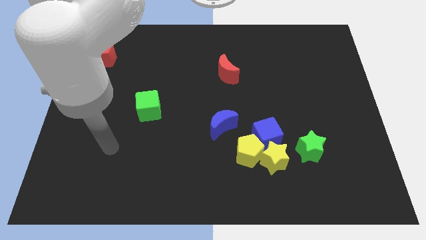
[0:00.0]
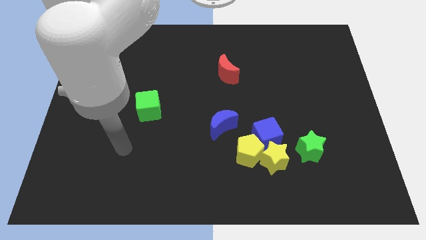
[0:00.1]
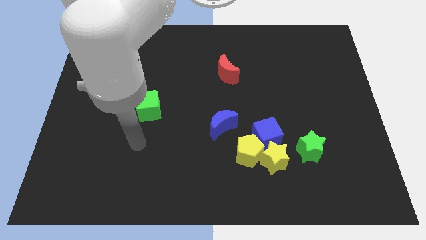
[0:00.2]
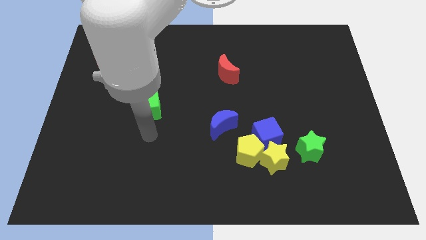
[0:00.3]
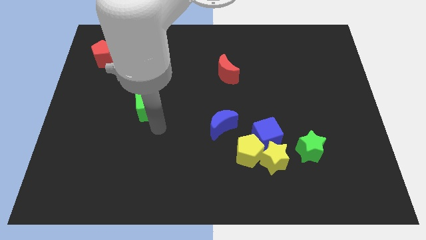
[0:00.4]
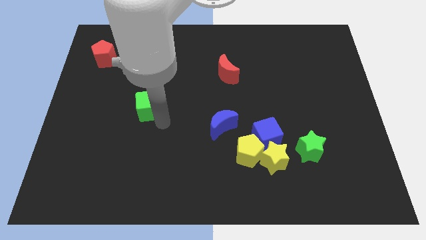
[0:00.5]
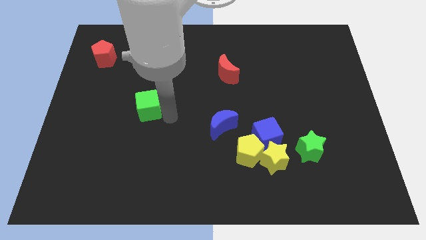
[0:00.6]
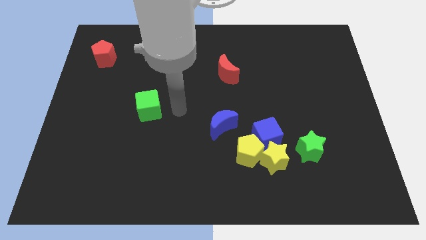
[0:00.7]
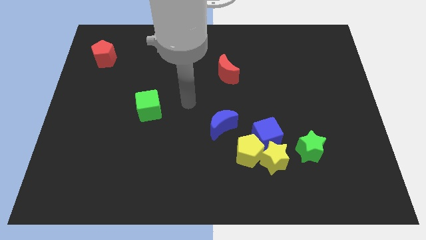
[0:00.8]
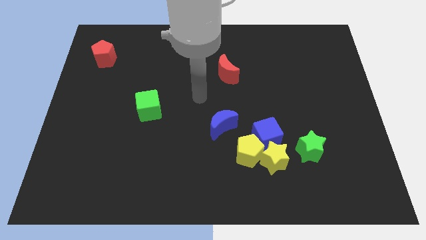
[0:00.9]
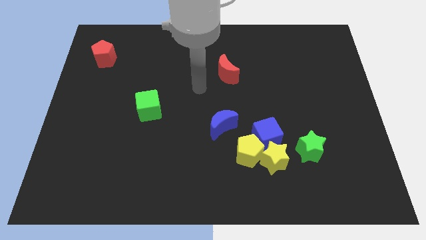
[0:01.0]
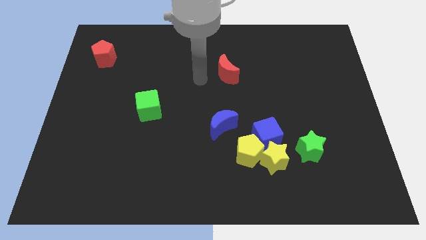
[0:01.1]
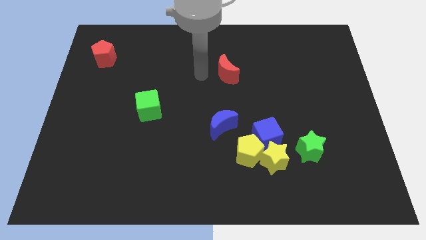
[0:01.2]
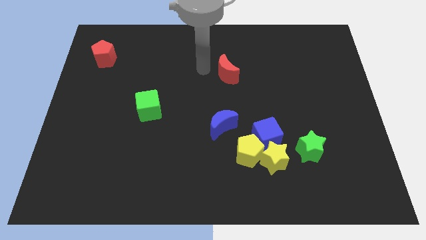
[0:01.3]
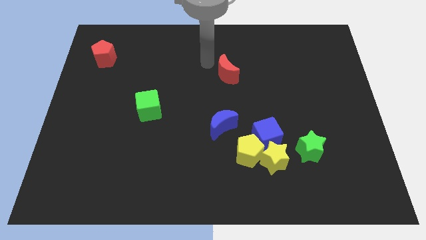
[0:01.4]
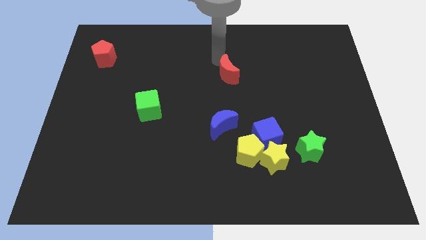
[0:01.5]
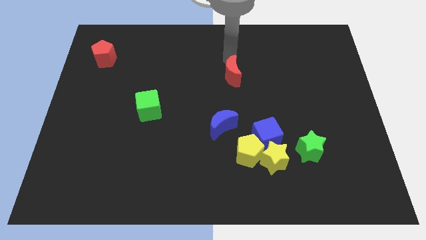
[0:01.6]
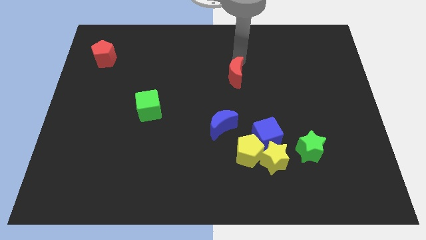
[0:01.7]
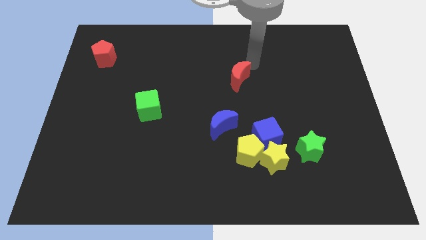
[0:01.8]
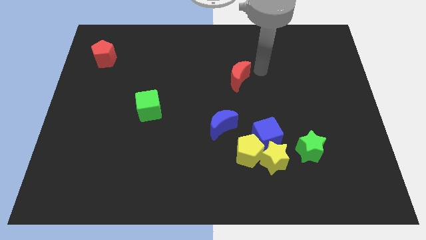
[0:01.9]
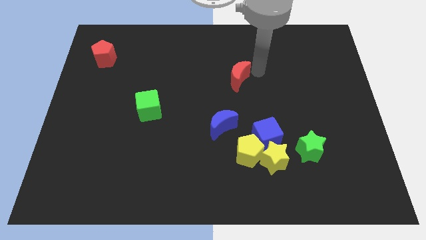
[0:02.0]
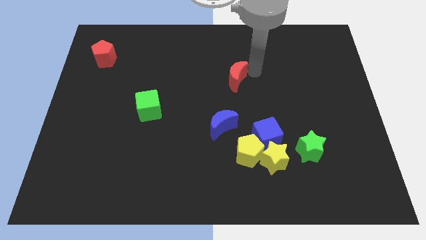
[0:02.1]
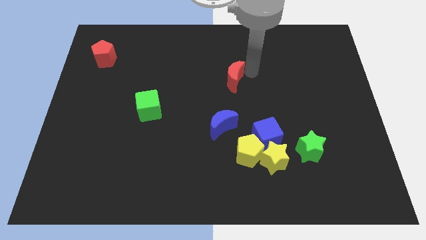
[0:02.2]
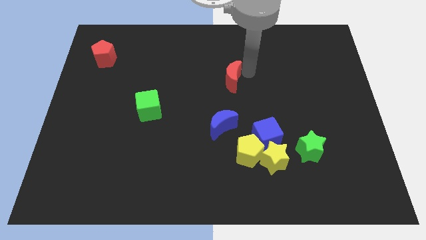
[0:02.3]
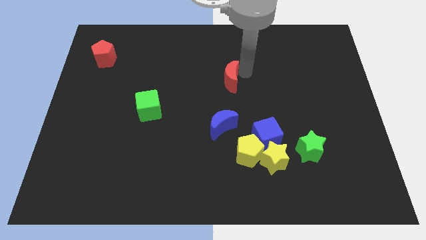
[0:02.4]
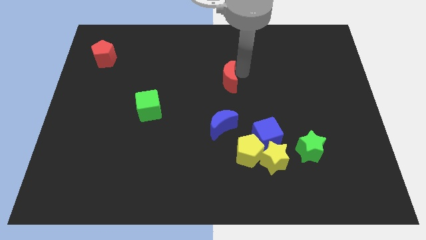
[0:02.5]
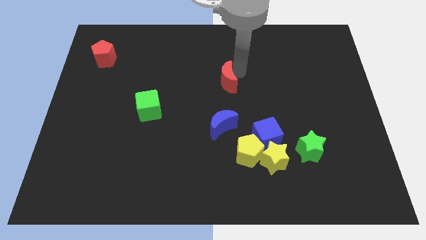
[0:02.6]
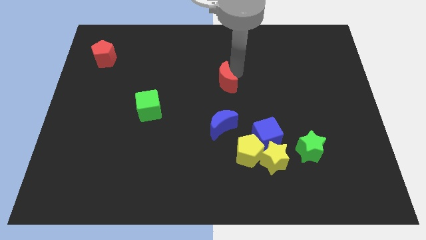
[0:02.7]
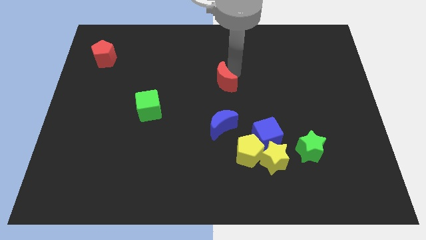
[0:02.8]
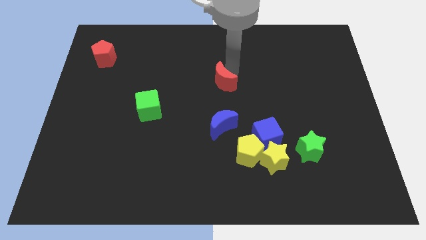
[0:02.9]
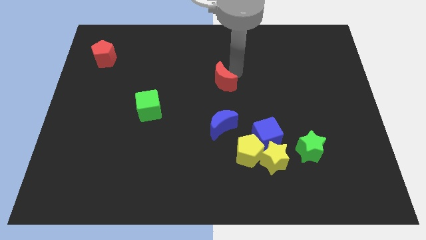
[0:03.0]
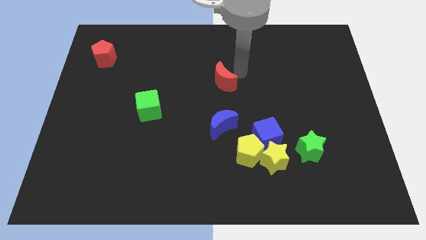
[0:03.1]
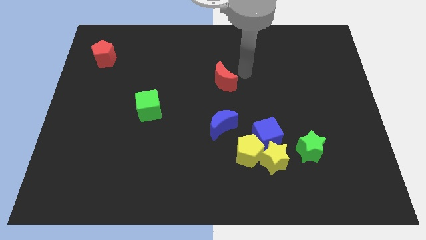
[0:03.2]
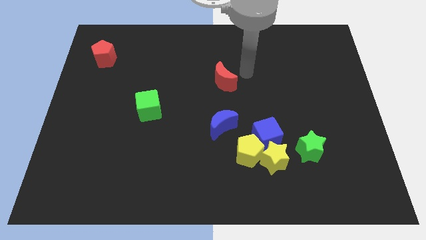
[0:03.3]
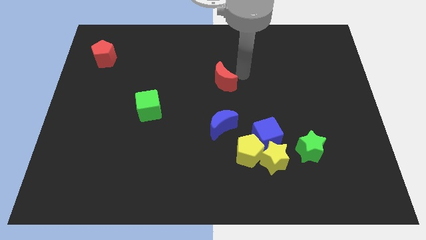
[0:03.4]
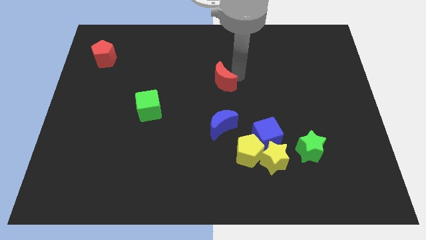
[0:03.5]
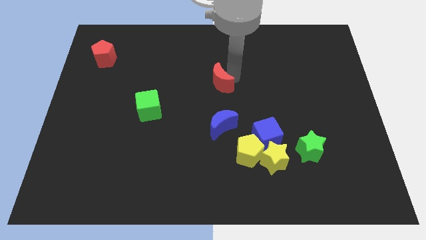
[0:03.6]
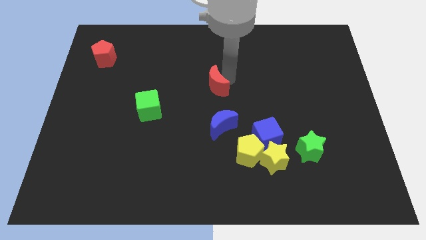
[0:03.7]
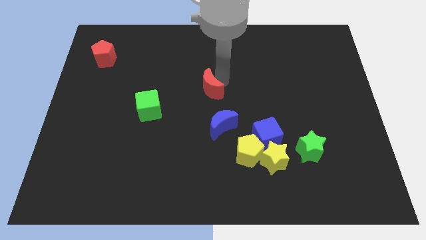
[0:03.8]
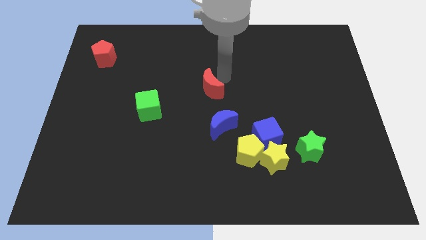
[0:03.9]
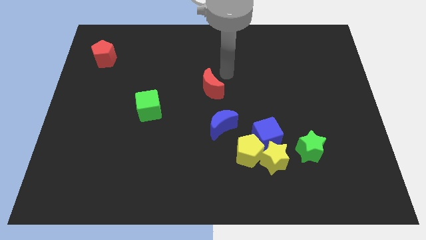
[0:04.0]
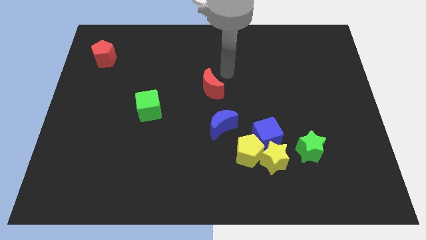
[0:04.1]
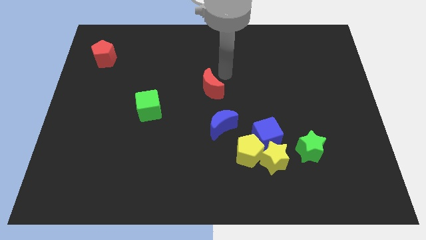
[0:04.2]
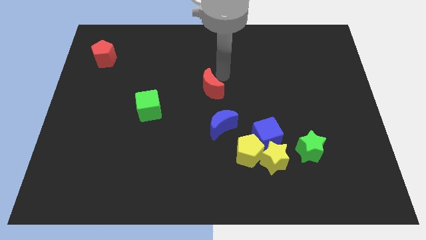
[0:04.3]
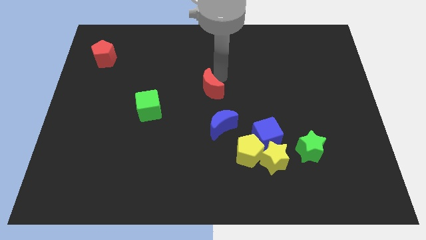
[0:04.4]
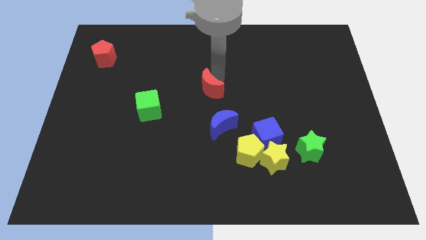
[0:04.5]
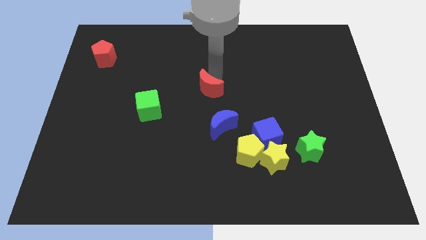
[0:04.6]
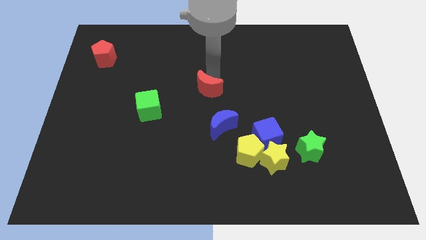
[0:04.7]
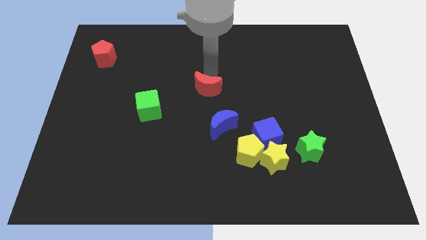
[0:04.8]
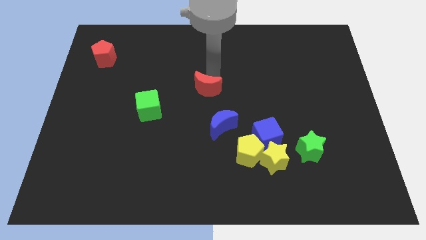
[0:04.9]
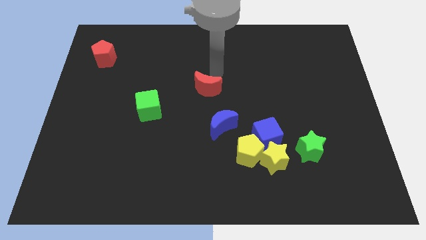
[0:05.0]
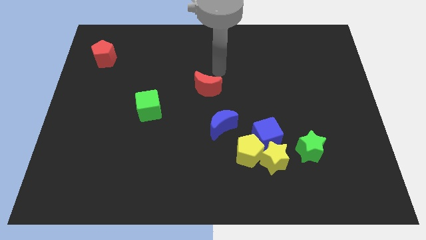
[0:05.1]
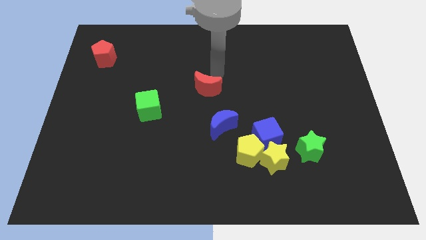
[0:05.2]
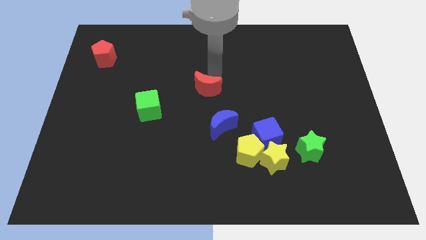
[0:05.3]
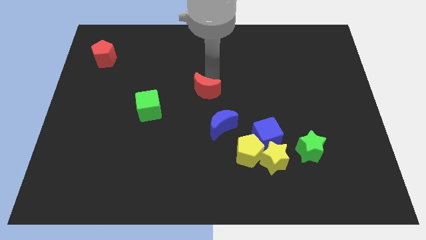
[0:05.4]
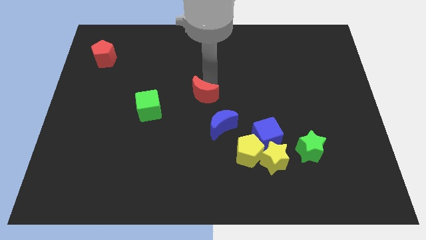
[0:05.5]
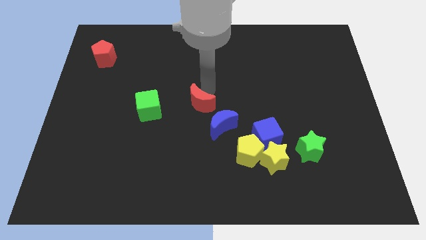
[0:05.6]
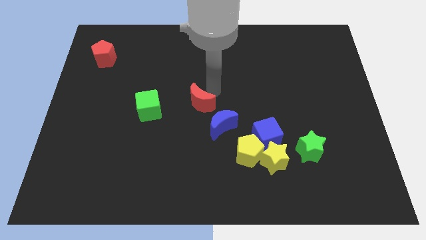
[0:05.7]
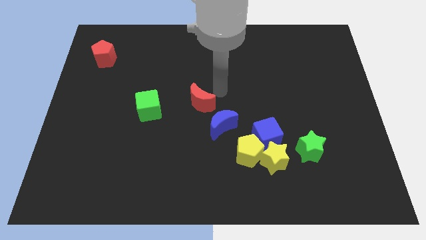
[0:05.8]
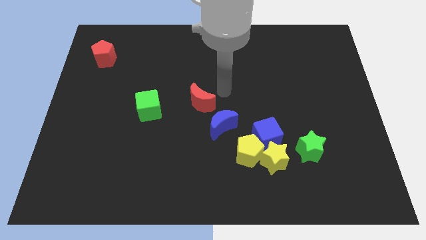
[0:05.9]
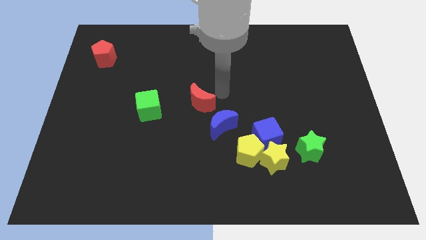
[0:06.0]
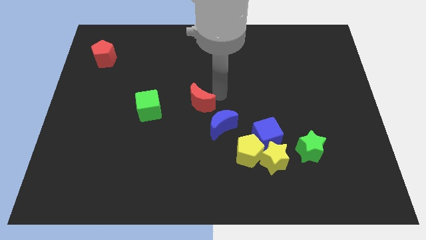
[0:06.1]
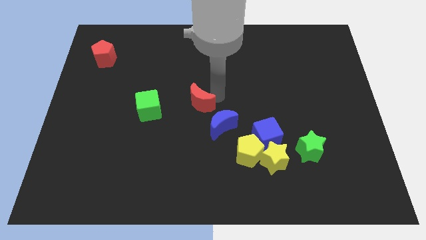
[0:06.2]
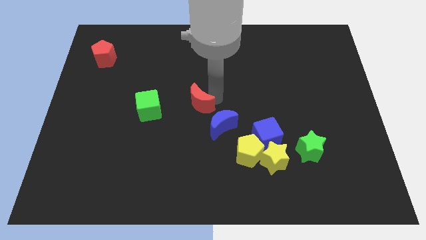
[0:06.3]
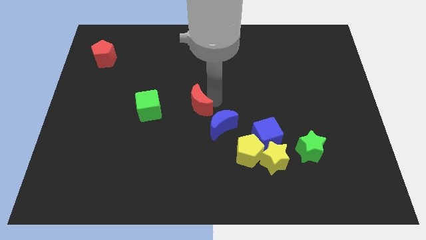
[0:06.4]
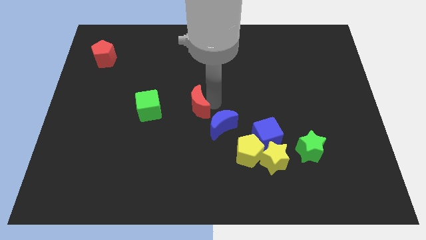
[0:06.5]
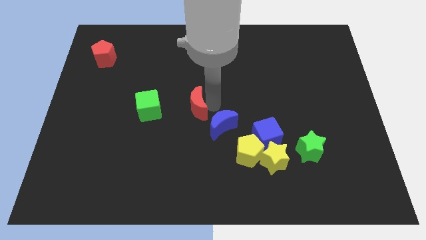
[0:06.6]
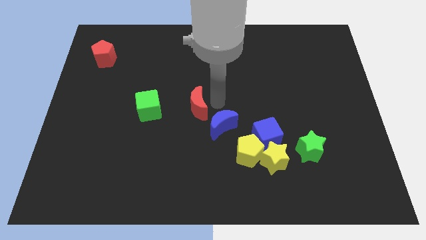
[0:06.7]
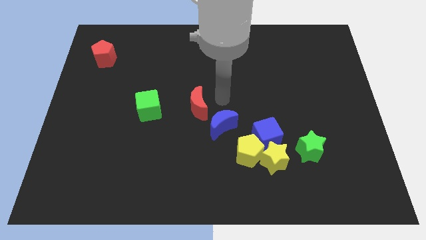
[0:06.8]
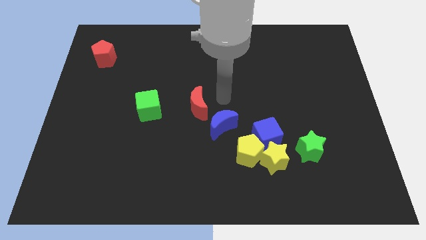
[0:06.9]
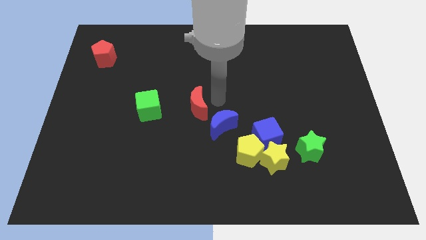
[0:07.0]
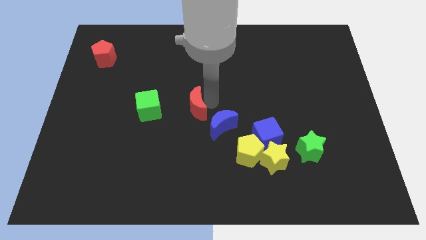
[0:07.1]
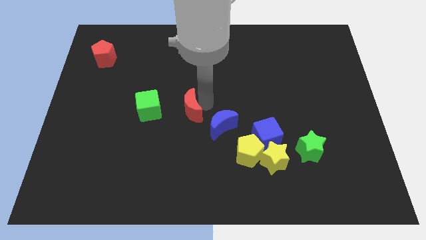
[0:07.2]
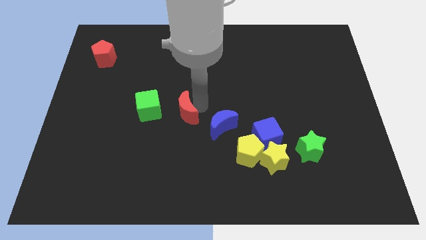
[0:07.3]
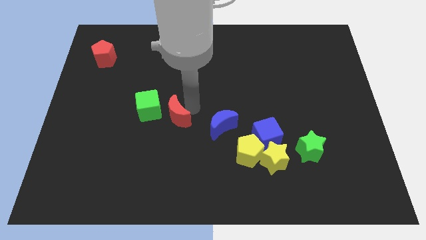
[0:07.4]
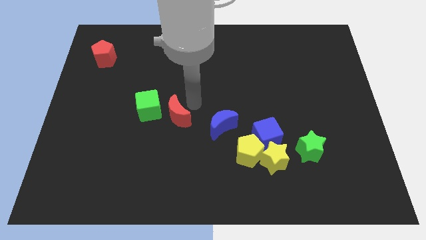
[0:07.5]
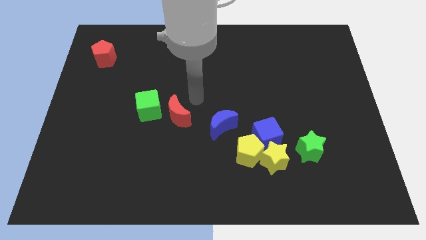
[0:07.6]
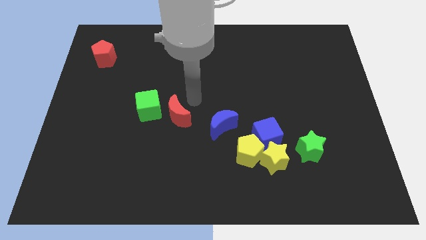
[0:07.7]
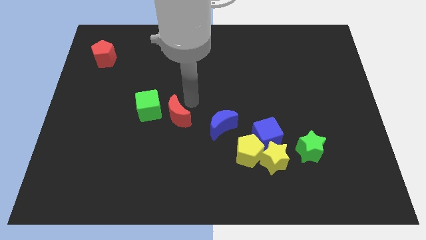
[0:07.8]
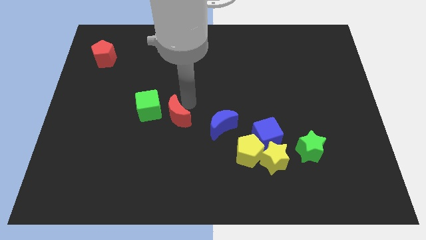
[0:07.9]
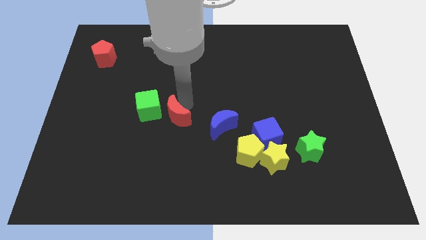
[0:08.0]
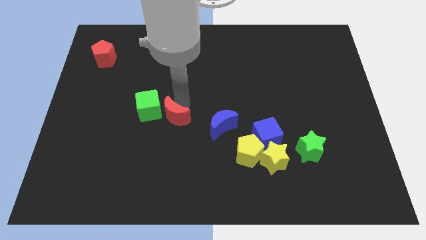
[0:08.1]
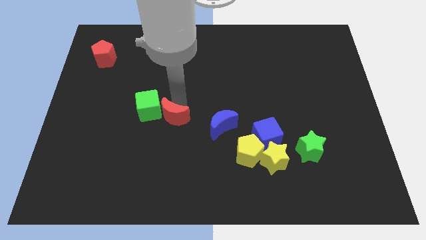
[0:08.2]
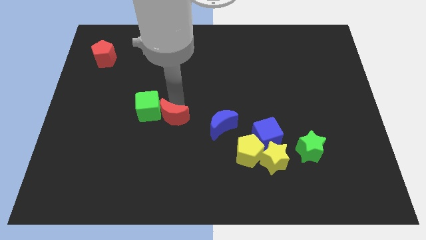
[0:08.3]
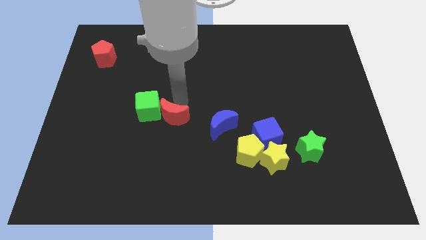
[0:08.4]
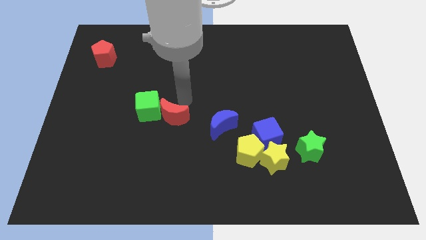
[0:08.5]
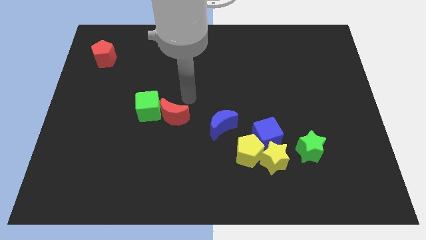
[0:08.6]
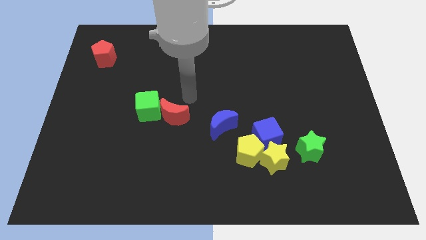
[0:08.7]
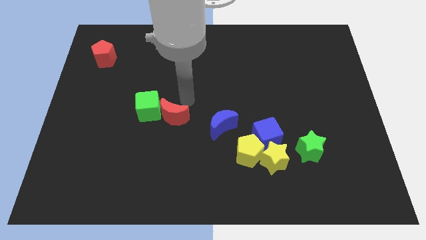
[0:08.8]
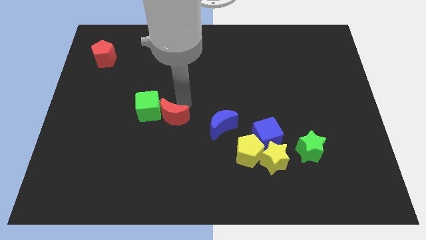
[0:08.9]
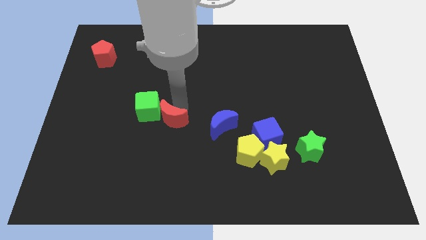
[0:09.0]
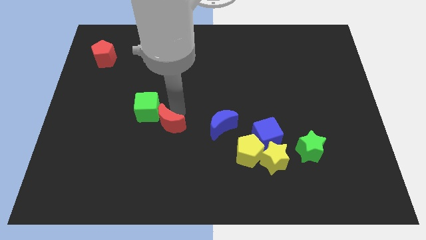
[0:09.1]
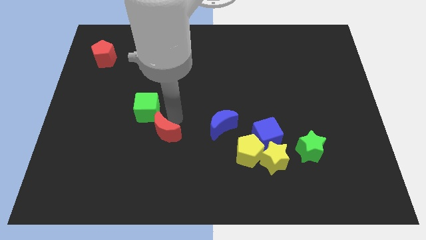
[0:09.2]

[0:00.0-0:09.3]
push the red moon to the bottom of the green cube
